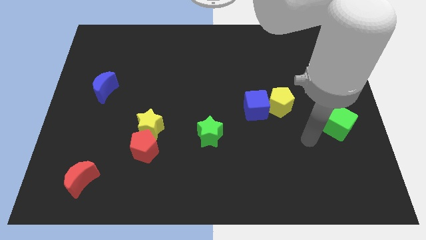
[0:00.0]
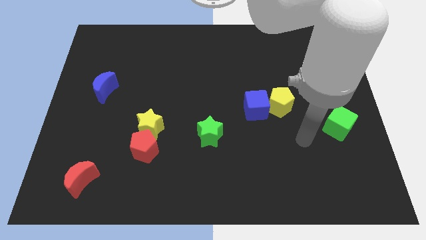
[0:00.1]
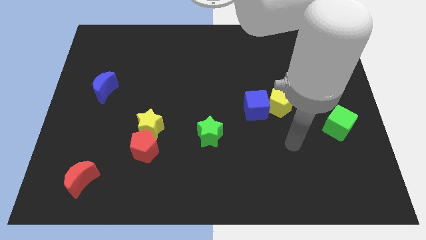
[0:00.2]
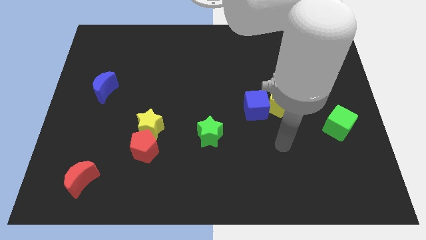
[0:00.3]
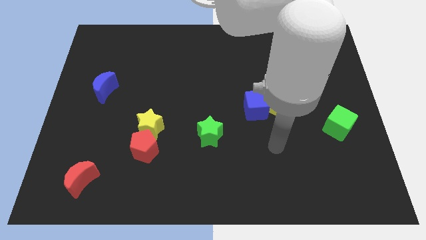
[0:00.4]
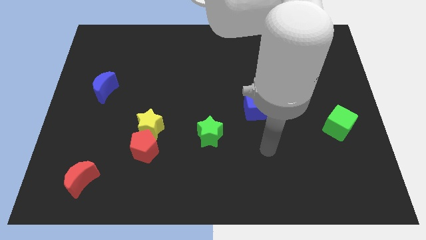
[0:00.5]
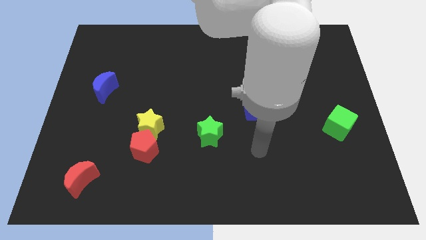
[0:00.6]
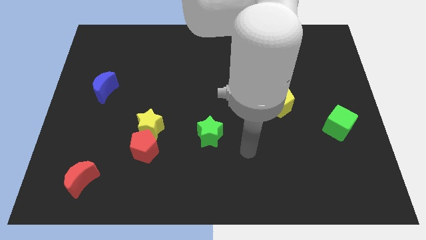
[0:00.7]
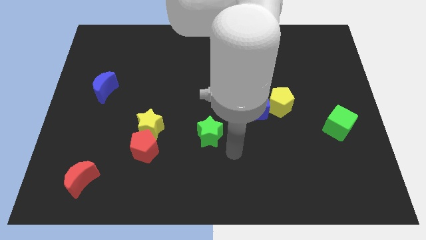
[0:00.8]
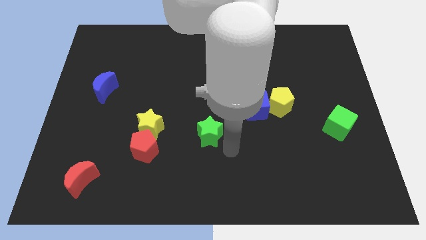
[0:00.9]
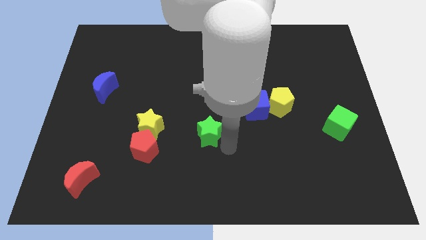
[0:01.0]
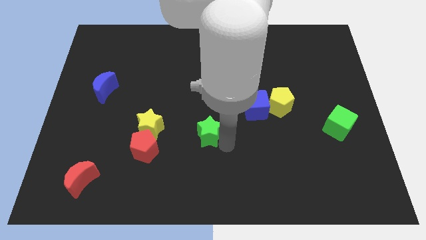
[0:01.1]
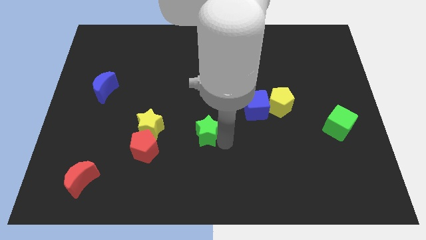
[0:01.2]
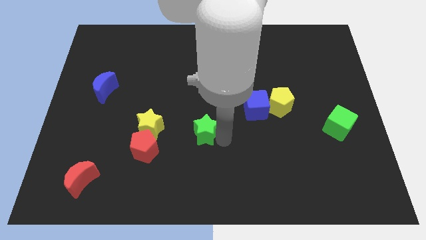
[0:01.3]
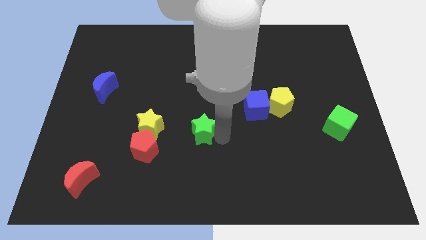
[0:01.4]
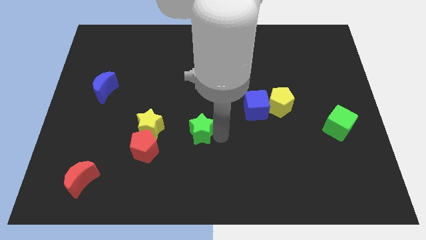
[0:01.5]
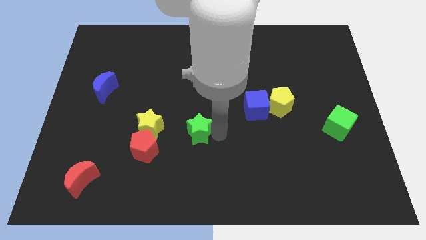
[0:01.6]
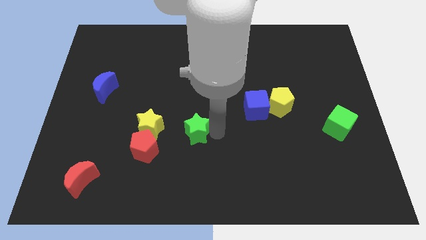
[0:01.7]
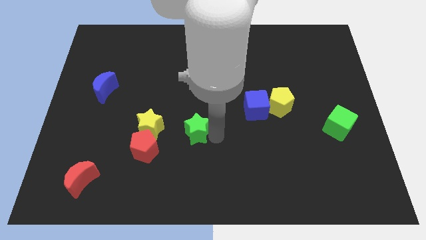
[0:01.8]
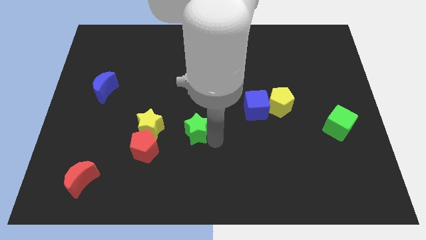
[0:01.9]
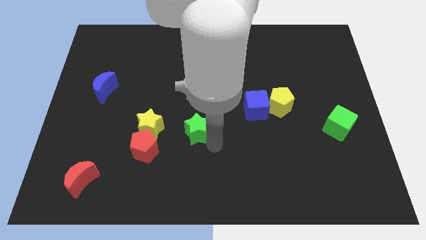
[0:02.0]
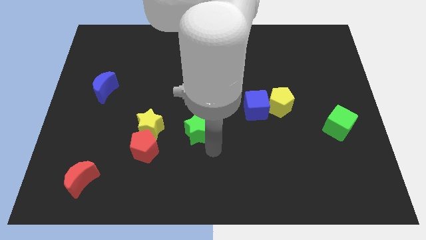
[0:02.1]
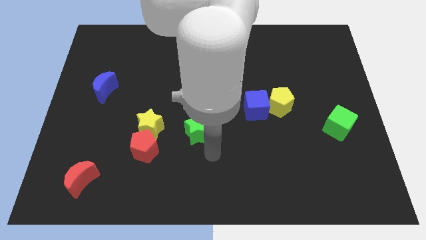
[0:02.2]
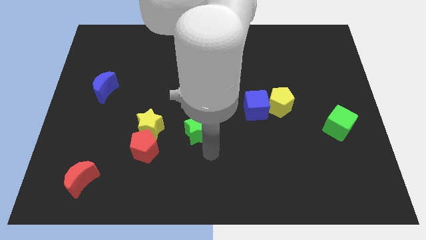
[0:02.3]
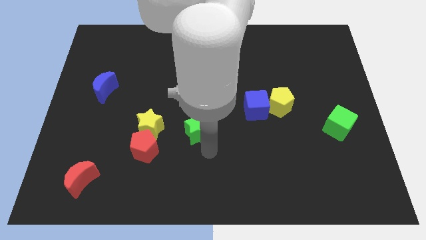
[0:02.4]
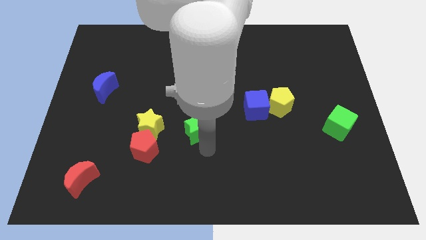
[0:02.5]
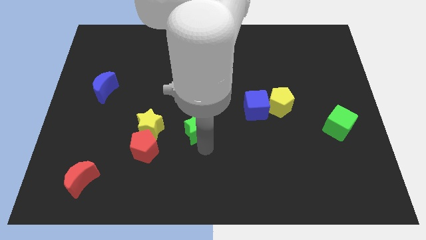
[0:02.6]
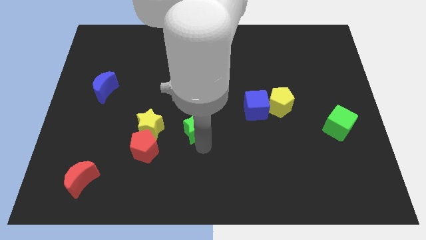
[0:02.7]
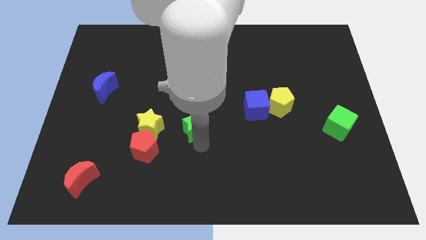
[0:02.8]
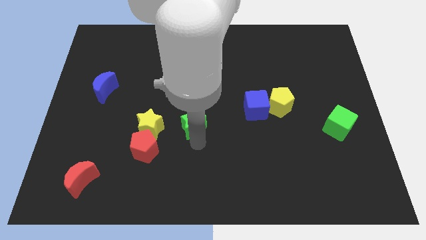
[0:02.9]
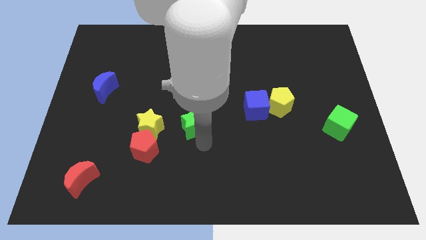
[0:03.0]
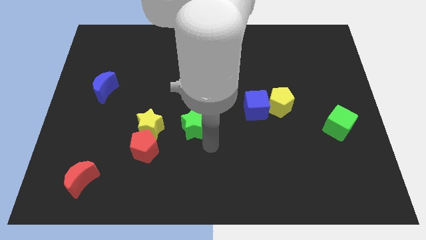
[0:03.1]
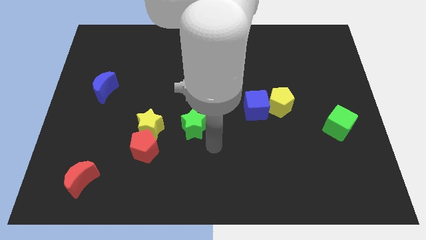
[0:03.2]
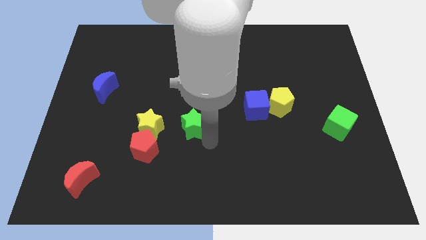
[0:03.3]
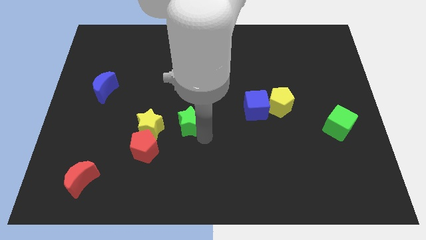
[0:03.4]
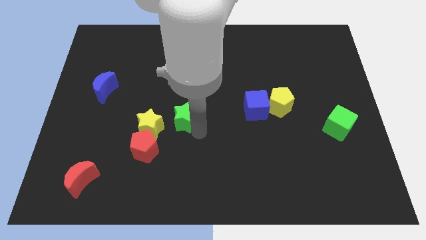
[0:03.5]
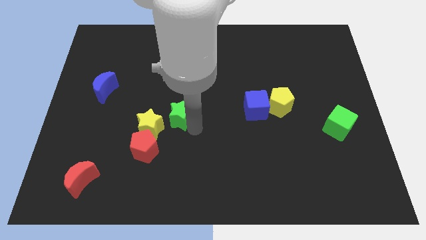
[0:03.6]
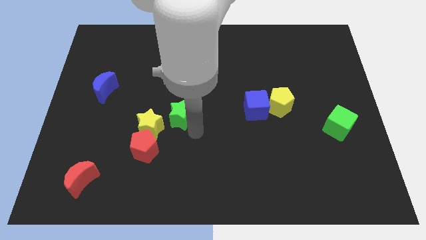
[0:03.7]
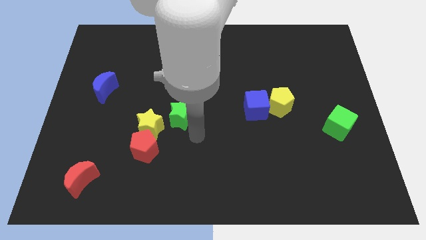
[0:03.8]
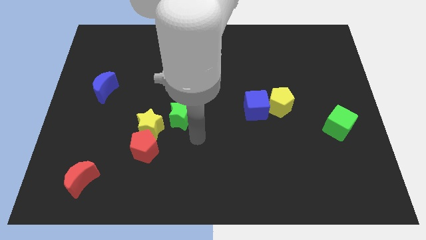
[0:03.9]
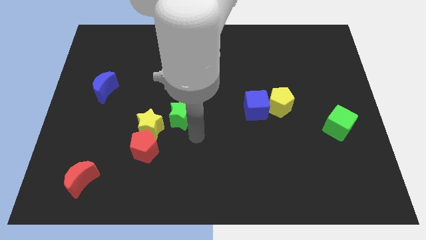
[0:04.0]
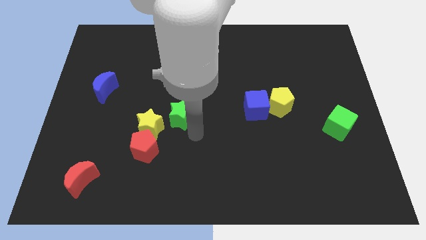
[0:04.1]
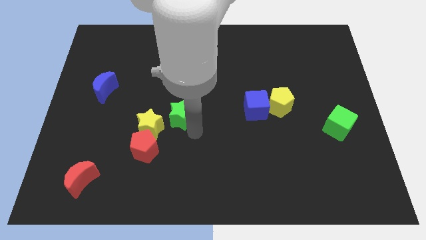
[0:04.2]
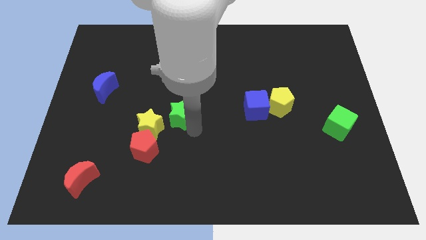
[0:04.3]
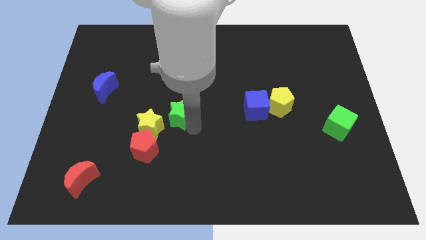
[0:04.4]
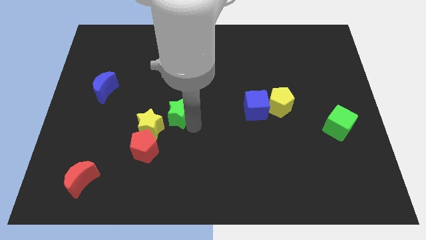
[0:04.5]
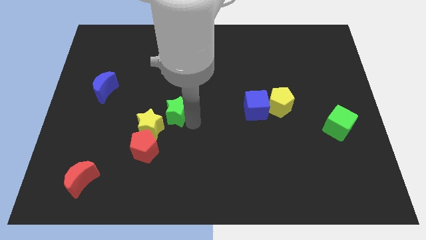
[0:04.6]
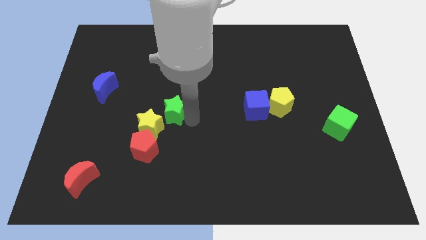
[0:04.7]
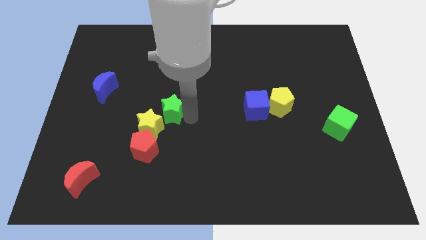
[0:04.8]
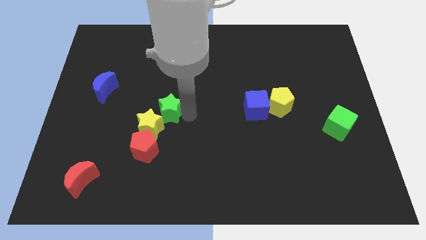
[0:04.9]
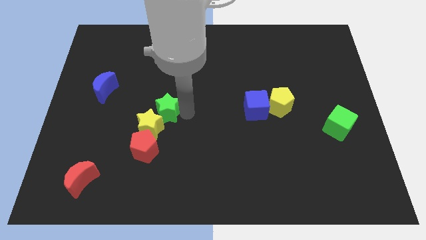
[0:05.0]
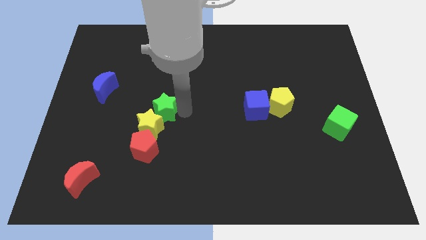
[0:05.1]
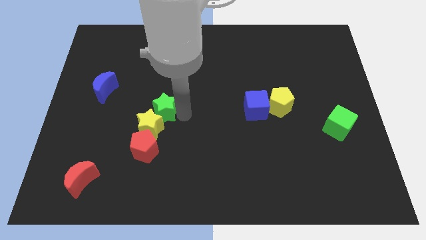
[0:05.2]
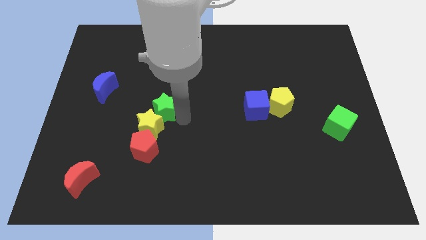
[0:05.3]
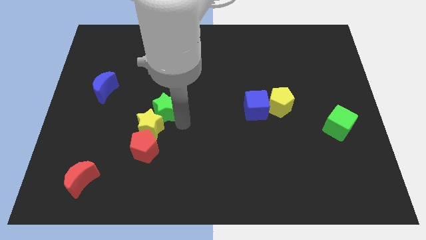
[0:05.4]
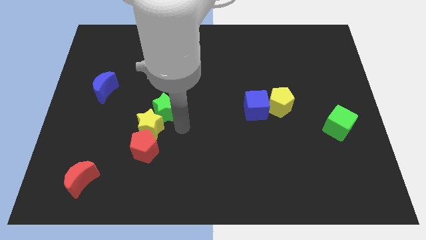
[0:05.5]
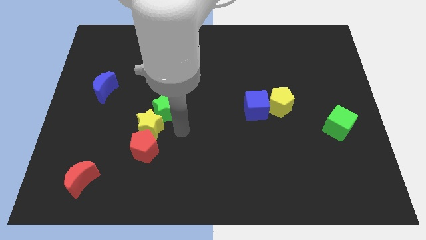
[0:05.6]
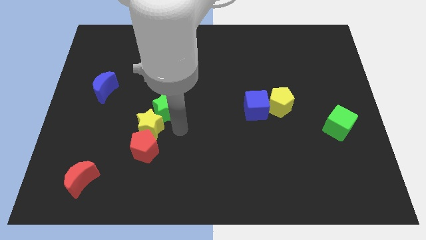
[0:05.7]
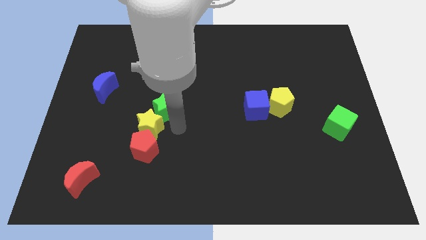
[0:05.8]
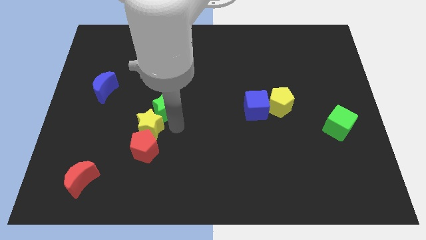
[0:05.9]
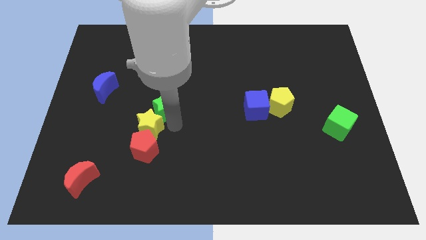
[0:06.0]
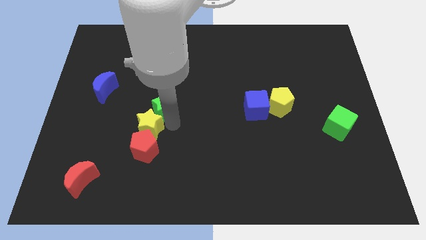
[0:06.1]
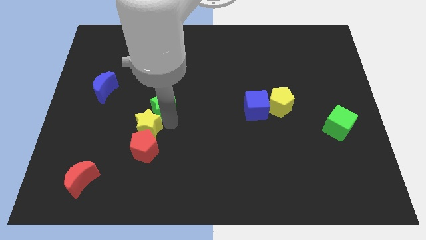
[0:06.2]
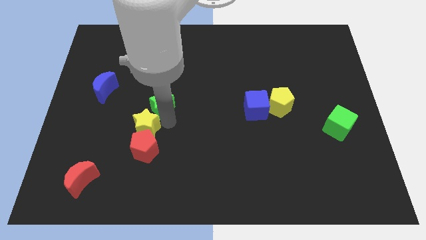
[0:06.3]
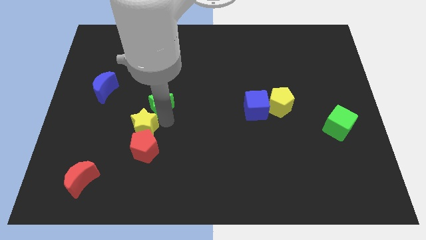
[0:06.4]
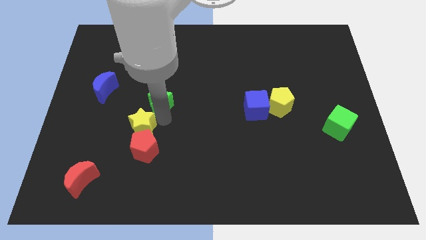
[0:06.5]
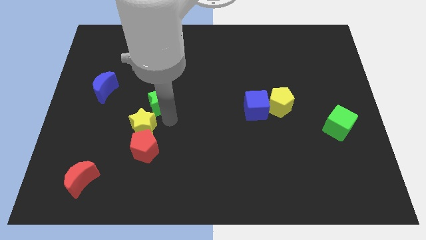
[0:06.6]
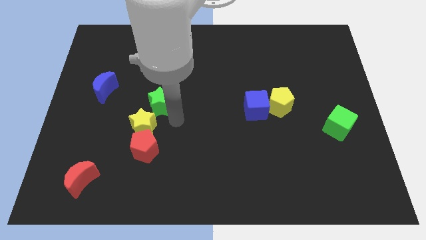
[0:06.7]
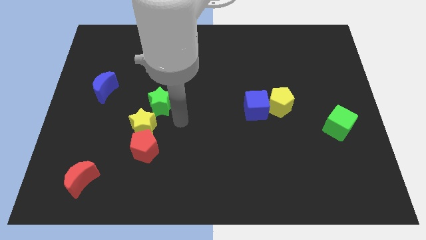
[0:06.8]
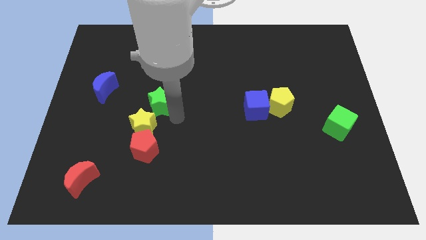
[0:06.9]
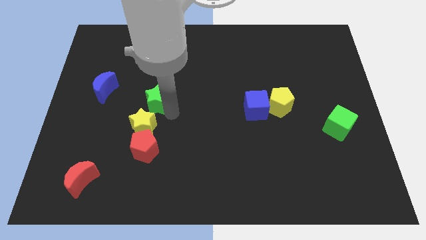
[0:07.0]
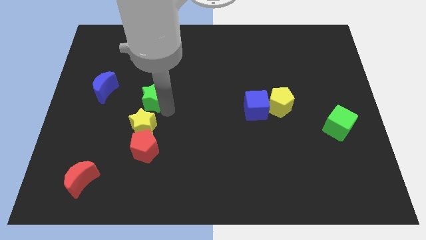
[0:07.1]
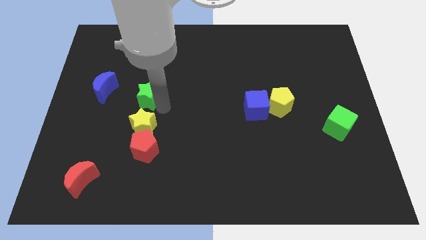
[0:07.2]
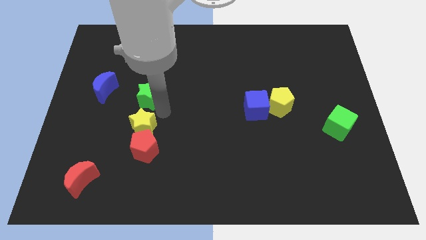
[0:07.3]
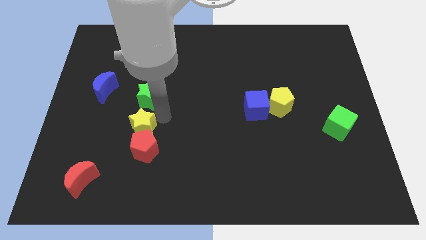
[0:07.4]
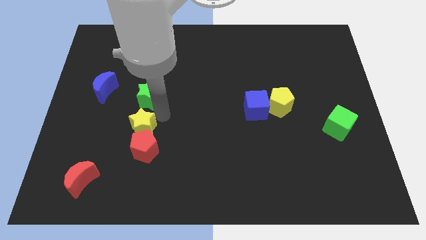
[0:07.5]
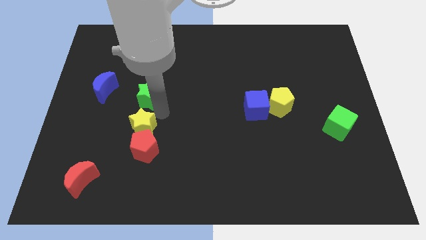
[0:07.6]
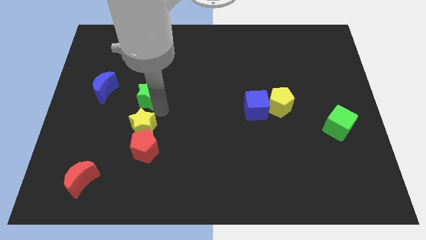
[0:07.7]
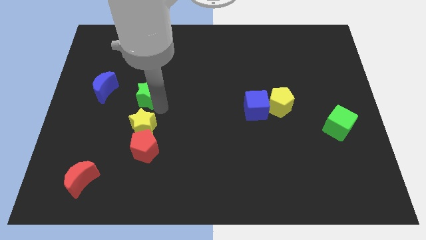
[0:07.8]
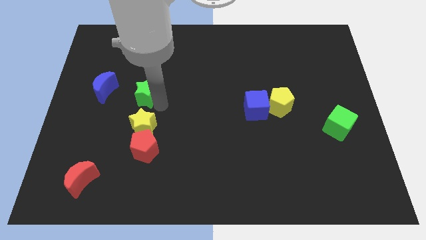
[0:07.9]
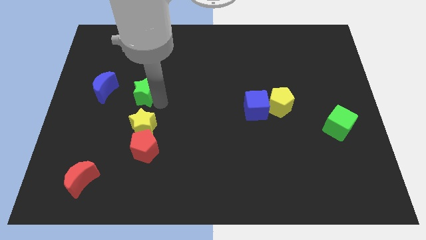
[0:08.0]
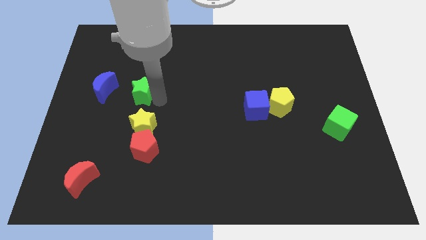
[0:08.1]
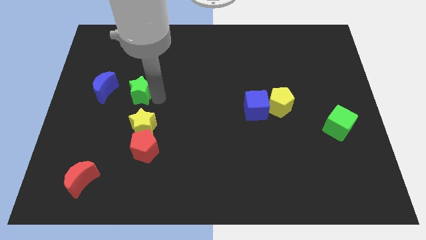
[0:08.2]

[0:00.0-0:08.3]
push the green star up and left diagonally
